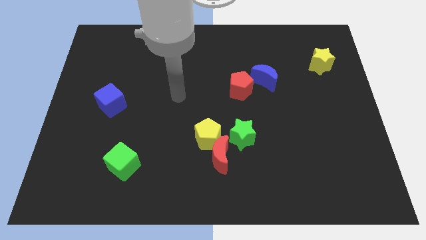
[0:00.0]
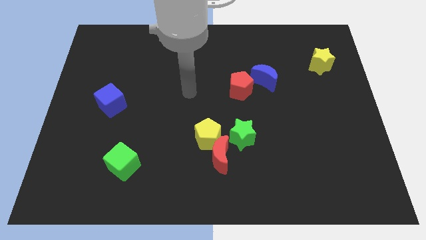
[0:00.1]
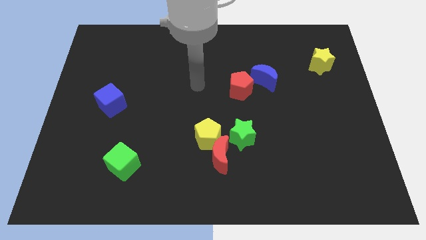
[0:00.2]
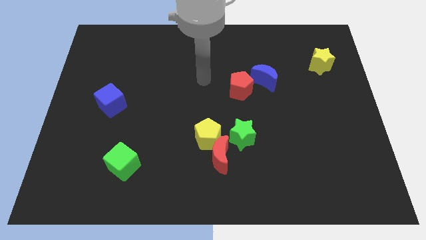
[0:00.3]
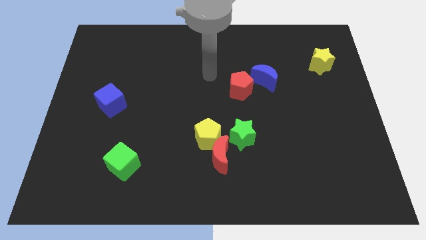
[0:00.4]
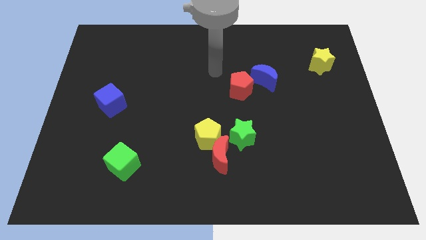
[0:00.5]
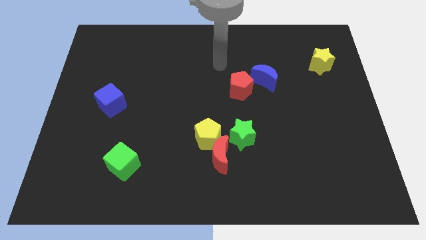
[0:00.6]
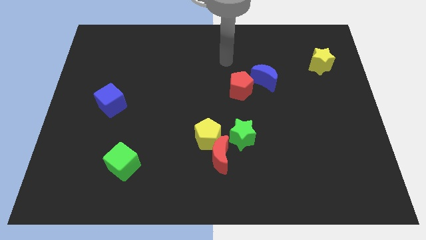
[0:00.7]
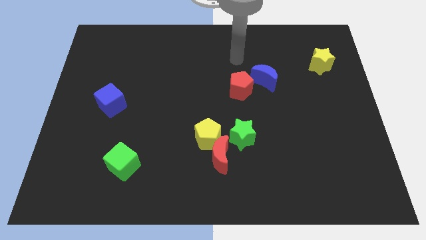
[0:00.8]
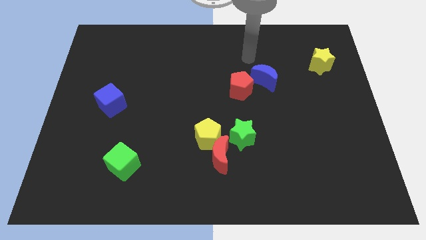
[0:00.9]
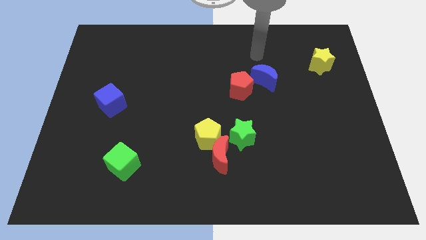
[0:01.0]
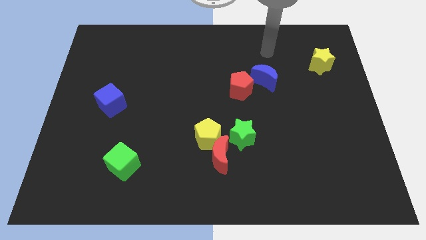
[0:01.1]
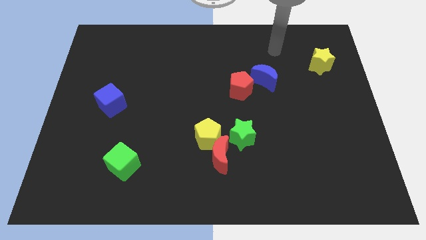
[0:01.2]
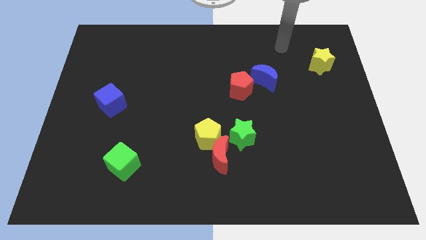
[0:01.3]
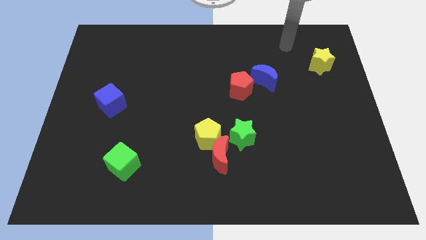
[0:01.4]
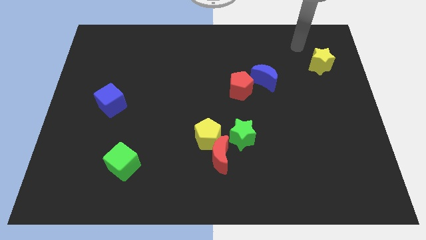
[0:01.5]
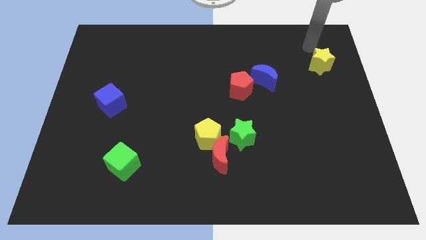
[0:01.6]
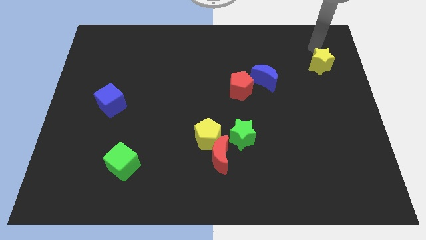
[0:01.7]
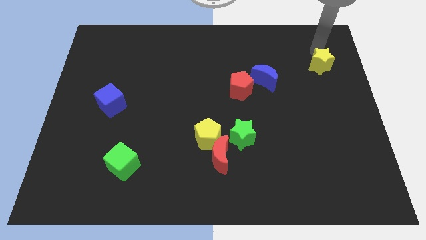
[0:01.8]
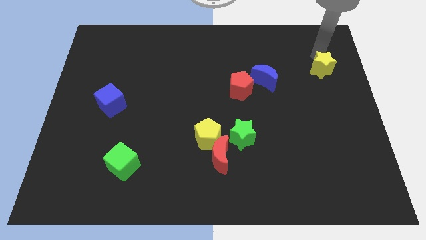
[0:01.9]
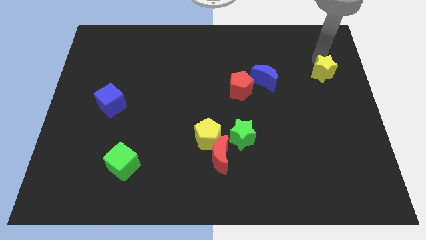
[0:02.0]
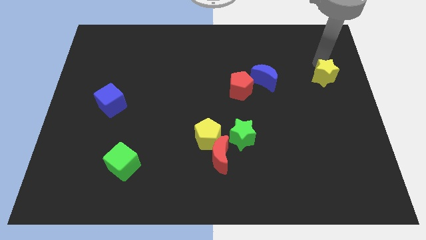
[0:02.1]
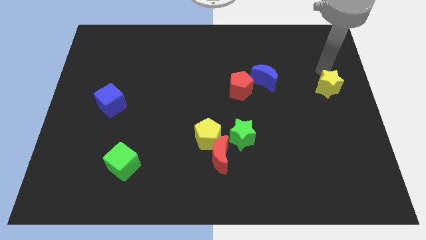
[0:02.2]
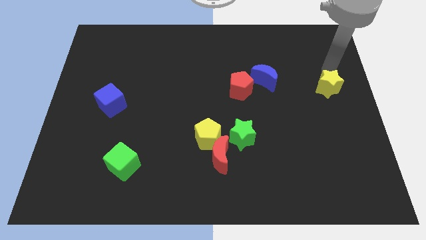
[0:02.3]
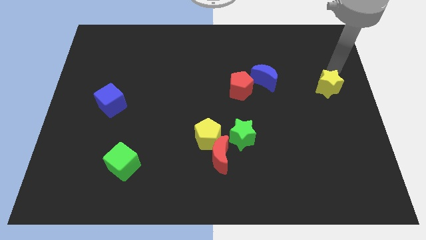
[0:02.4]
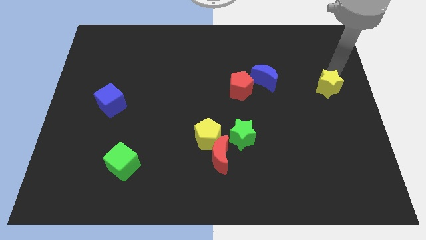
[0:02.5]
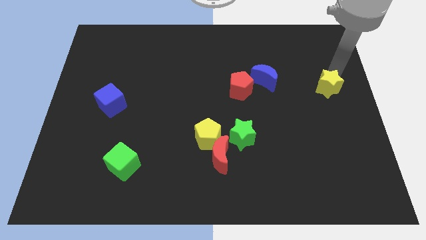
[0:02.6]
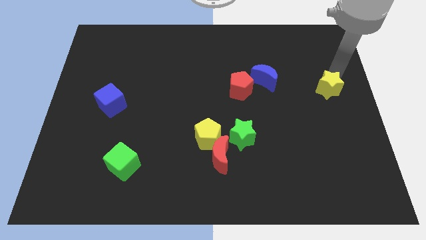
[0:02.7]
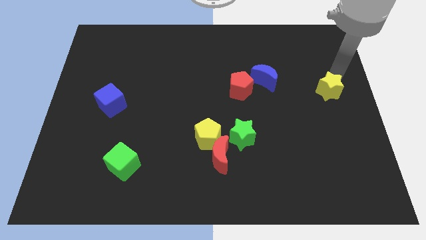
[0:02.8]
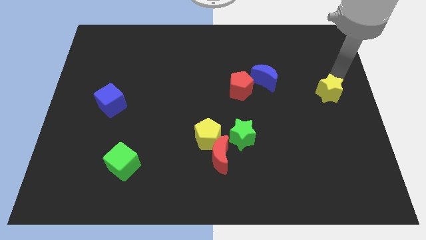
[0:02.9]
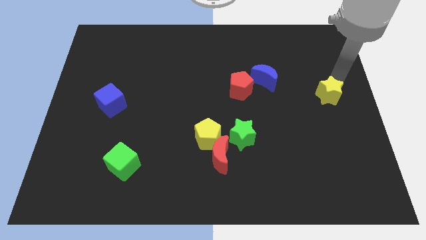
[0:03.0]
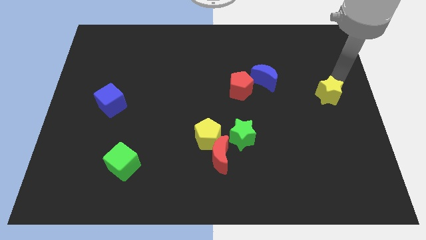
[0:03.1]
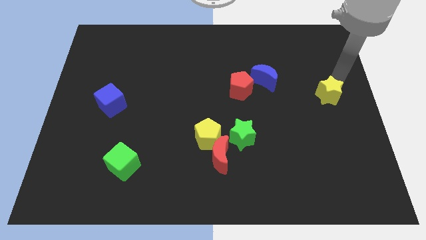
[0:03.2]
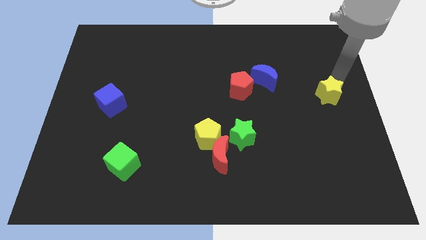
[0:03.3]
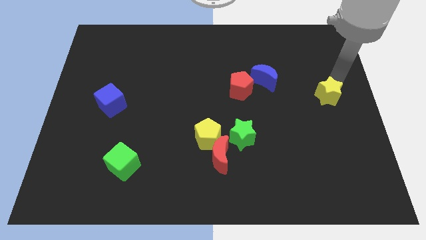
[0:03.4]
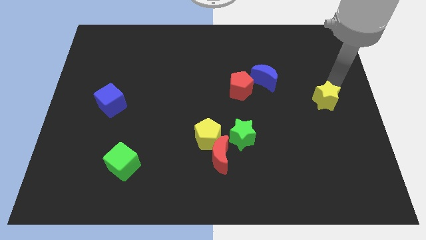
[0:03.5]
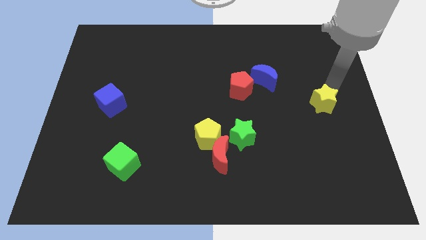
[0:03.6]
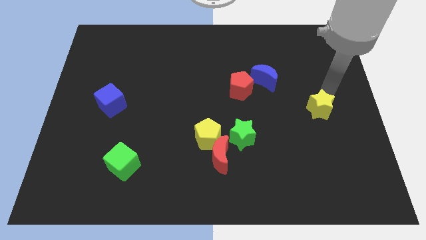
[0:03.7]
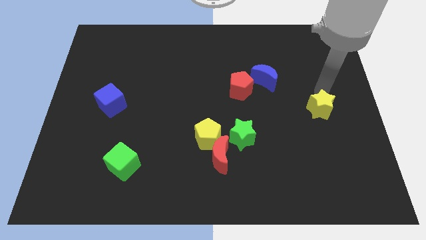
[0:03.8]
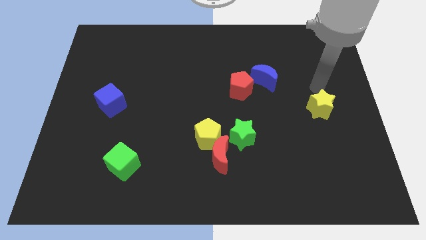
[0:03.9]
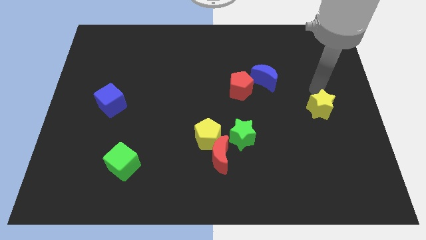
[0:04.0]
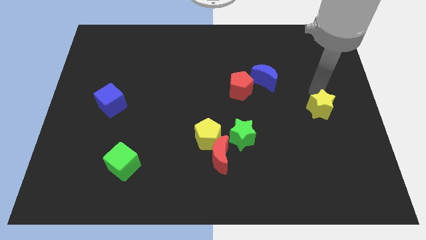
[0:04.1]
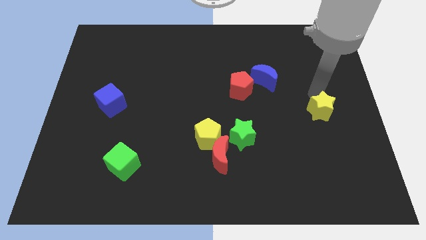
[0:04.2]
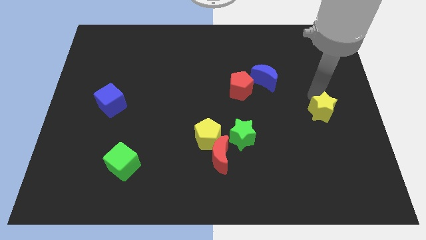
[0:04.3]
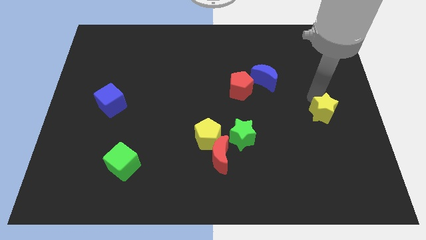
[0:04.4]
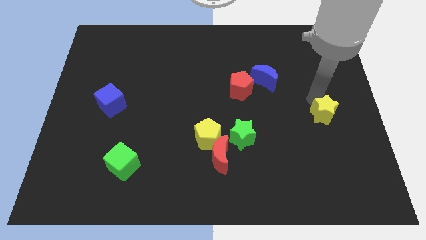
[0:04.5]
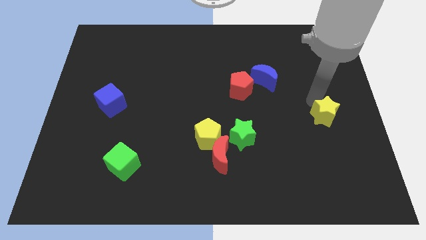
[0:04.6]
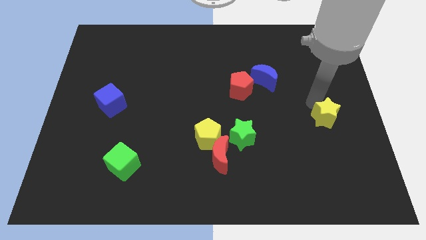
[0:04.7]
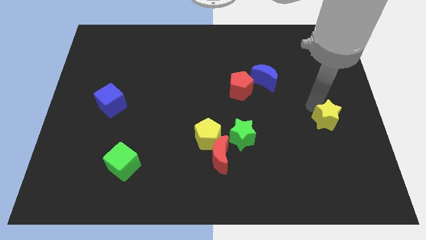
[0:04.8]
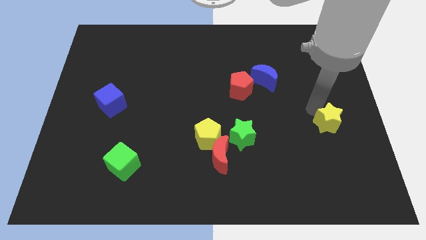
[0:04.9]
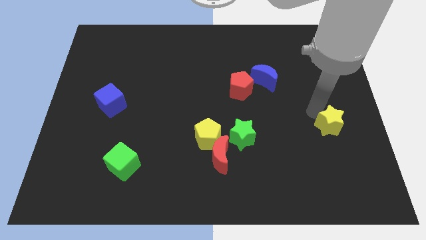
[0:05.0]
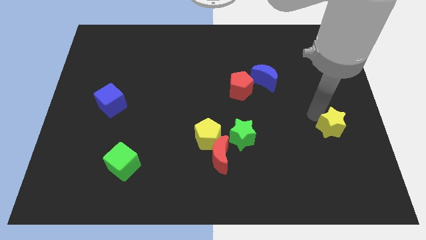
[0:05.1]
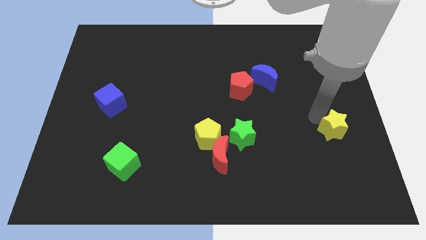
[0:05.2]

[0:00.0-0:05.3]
push the yellow star down

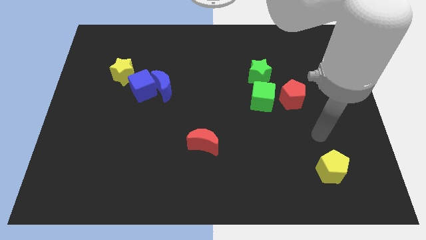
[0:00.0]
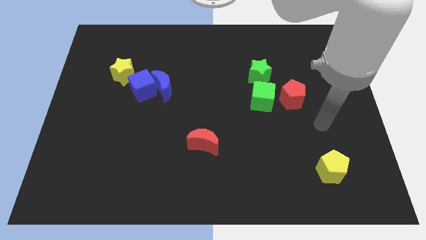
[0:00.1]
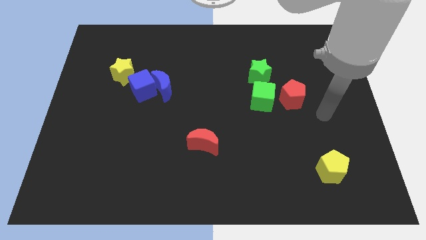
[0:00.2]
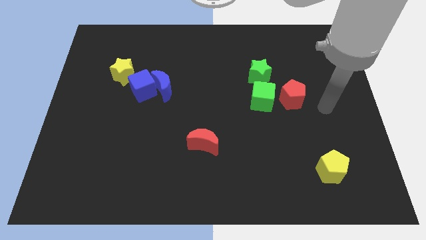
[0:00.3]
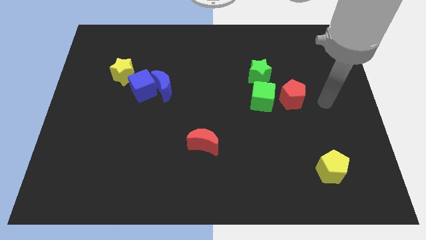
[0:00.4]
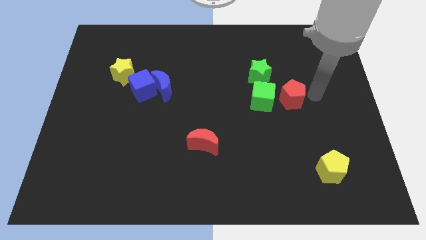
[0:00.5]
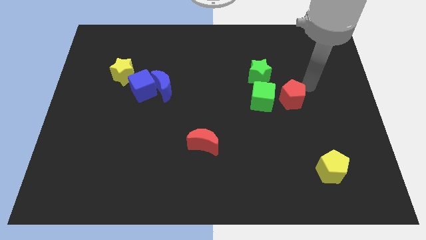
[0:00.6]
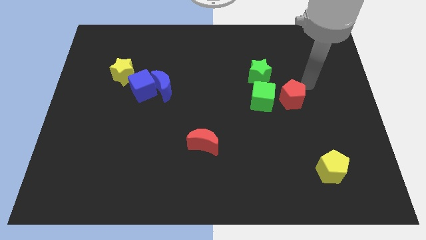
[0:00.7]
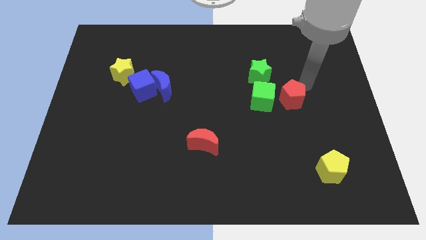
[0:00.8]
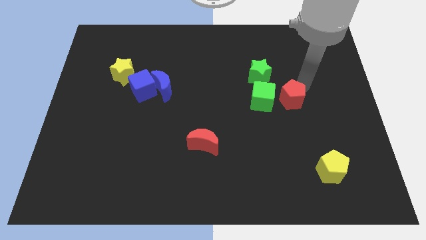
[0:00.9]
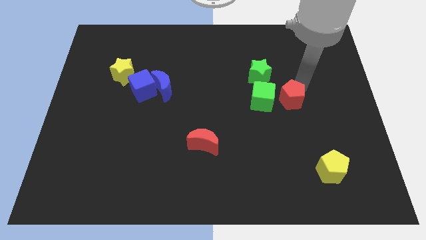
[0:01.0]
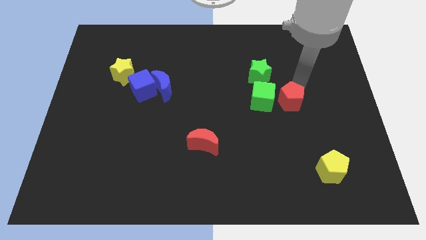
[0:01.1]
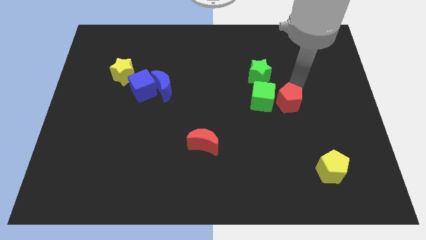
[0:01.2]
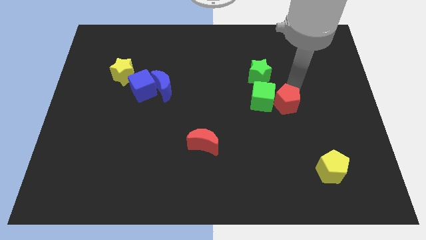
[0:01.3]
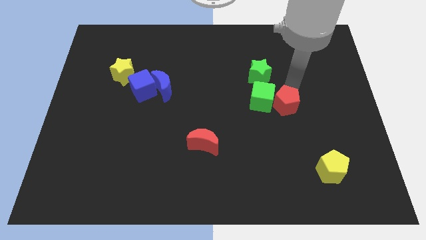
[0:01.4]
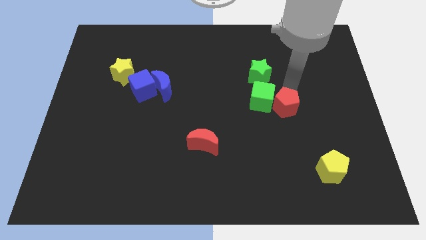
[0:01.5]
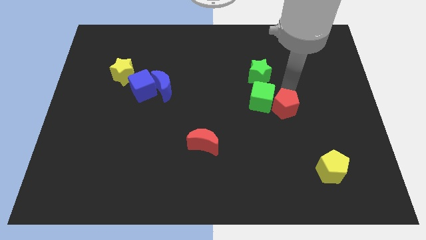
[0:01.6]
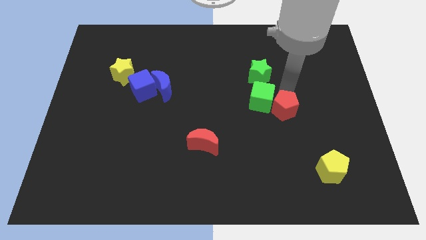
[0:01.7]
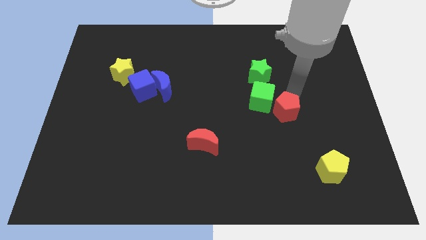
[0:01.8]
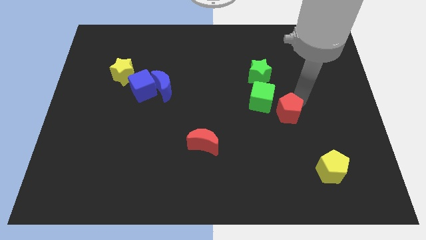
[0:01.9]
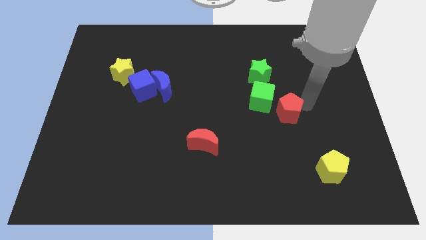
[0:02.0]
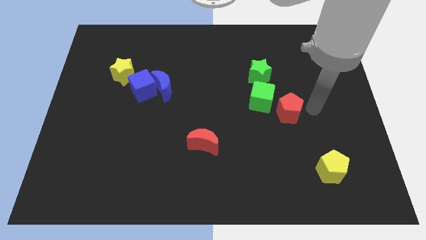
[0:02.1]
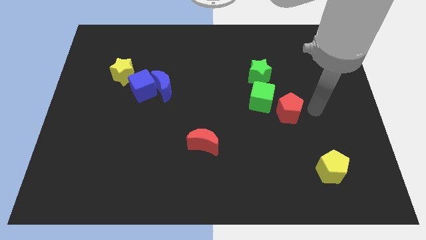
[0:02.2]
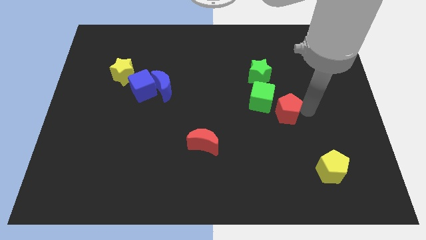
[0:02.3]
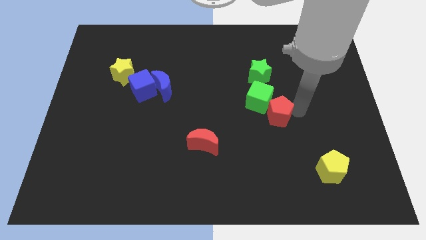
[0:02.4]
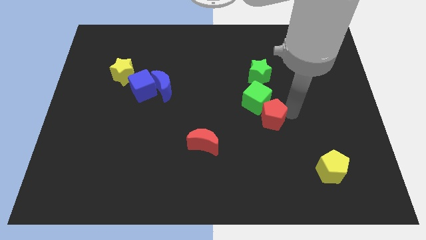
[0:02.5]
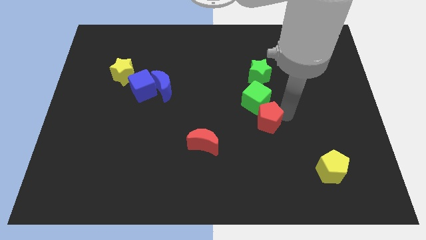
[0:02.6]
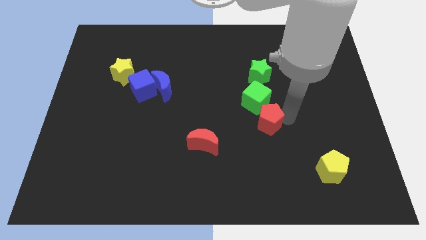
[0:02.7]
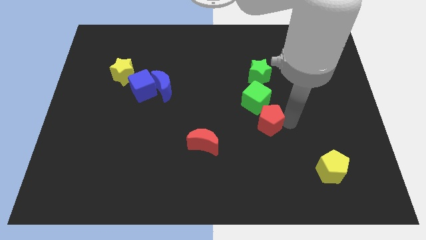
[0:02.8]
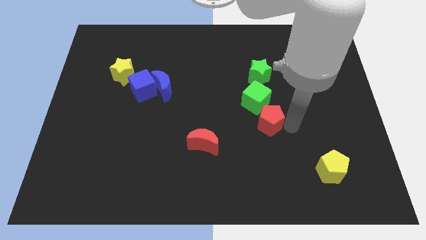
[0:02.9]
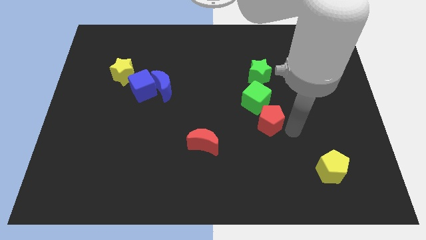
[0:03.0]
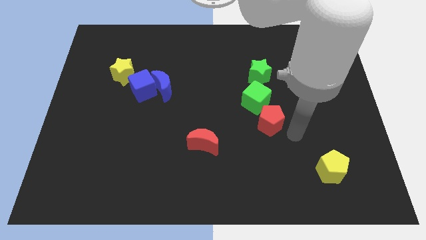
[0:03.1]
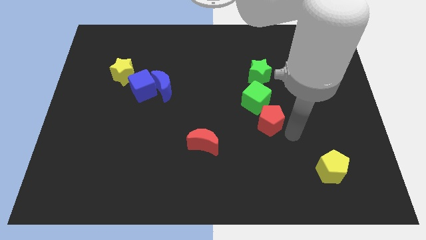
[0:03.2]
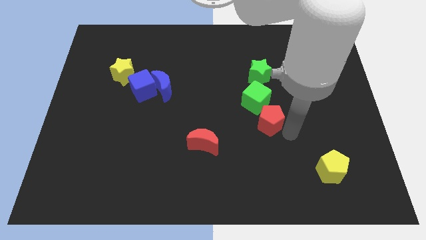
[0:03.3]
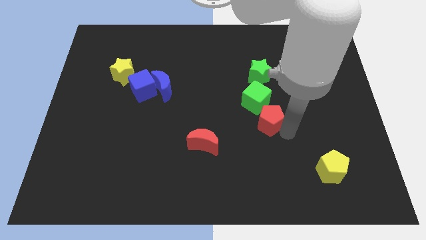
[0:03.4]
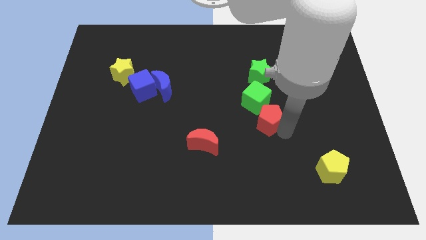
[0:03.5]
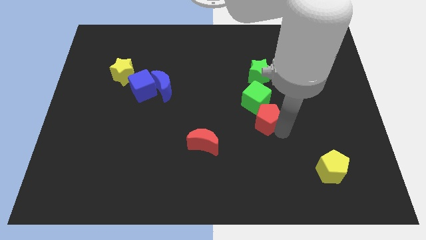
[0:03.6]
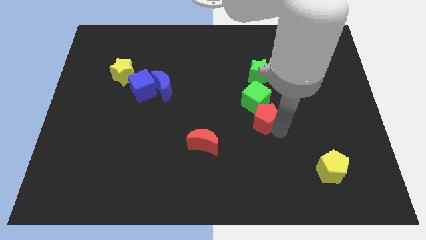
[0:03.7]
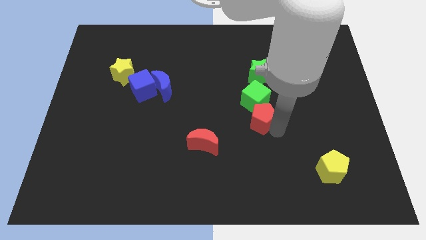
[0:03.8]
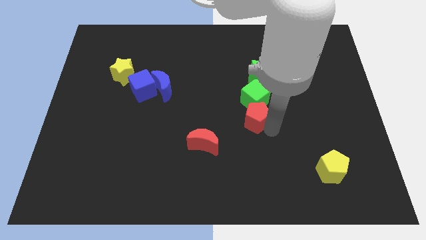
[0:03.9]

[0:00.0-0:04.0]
slightly slide the red pentagon to the left
